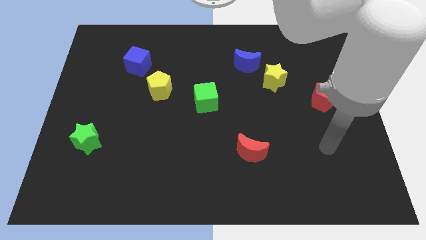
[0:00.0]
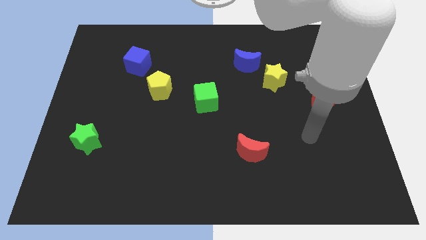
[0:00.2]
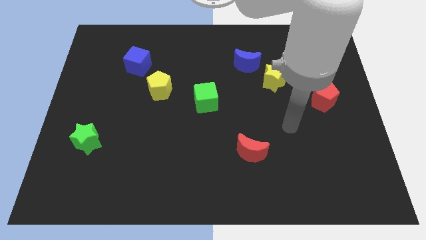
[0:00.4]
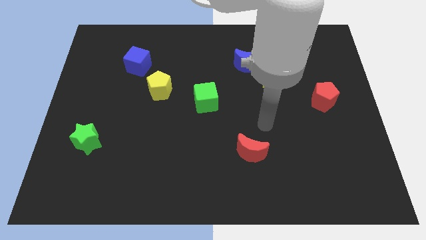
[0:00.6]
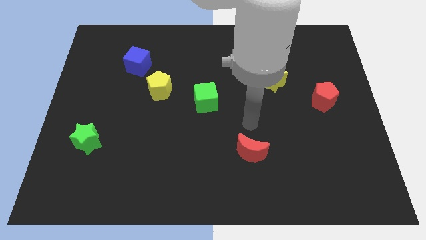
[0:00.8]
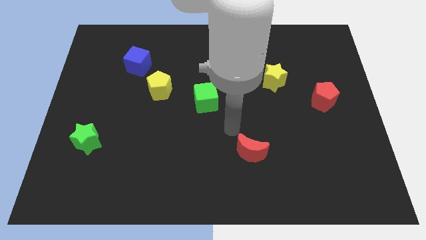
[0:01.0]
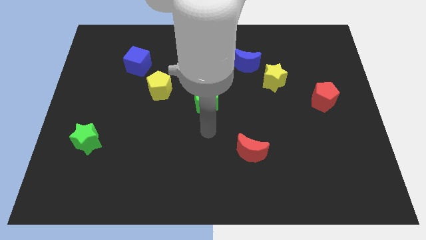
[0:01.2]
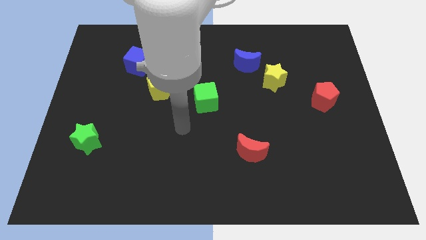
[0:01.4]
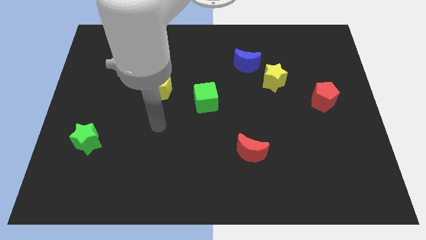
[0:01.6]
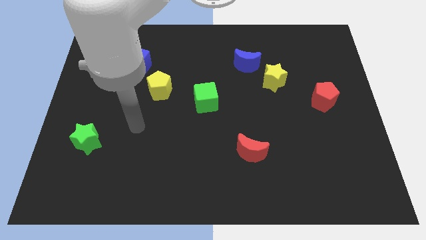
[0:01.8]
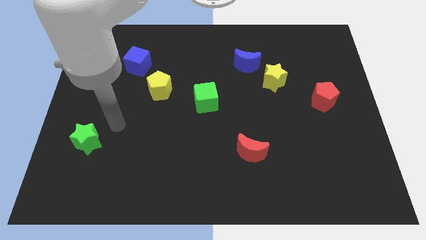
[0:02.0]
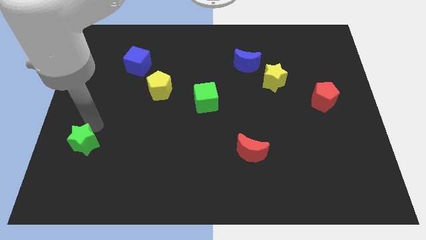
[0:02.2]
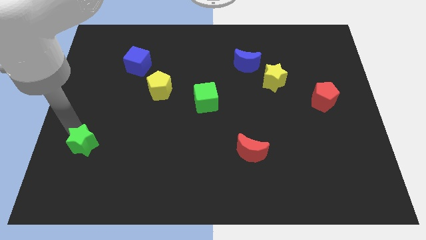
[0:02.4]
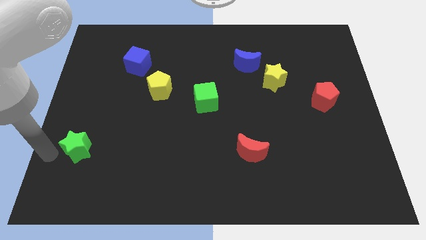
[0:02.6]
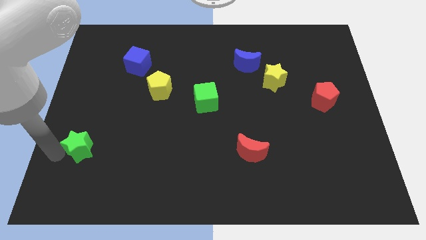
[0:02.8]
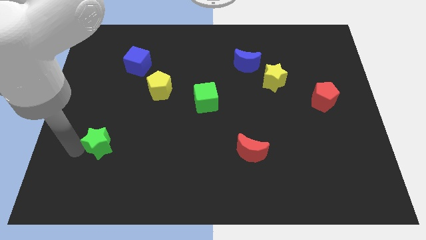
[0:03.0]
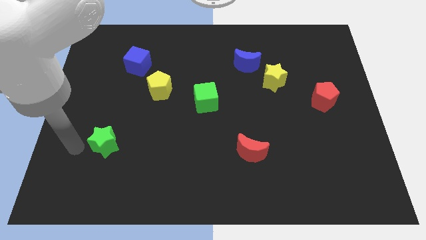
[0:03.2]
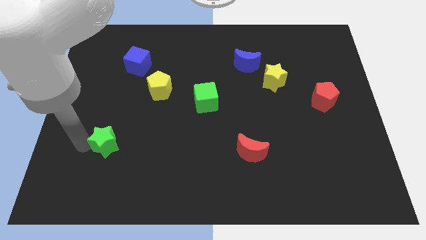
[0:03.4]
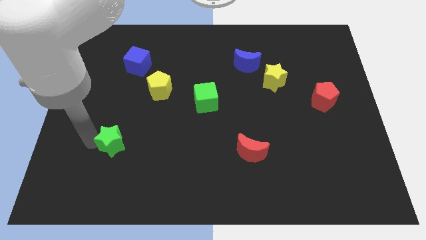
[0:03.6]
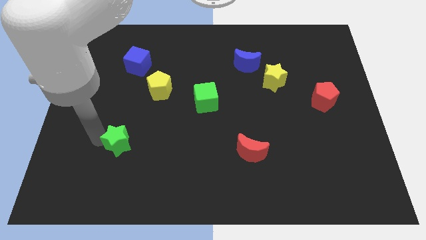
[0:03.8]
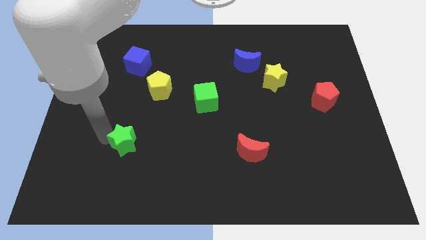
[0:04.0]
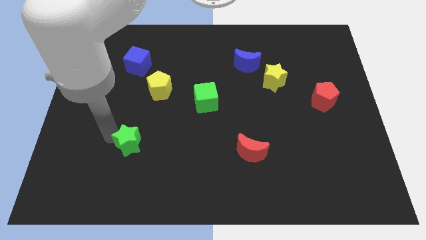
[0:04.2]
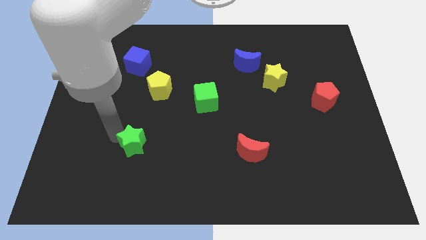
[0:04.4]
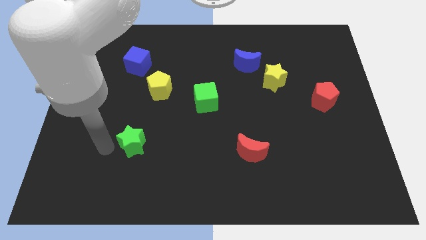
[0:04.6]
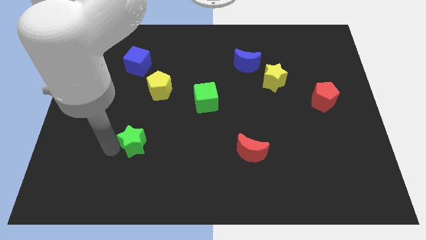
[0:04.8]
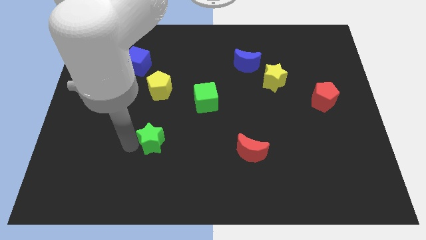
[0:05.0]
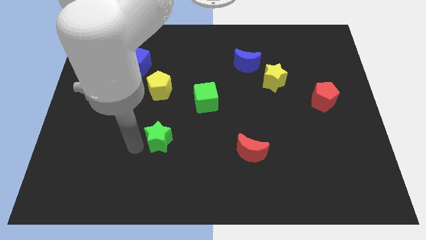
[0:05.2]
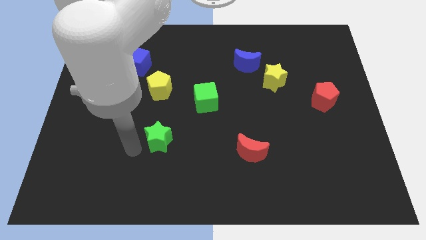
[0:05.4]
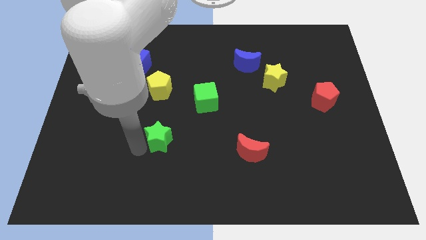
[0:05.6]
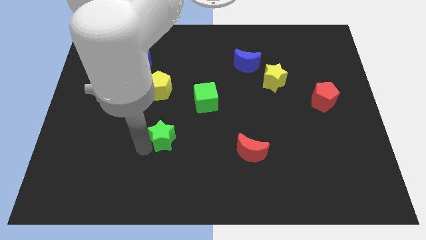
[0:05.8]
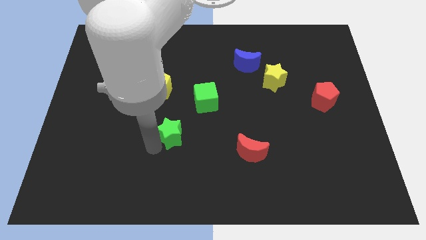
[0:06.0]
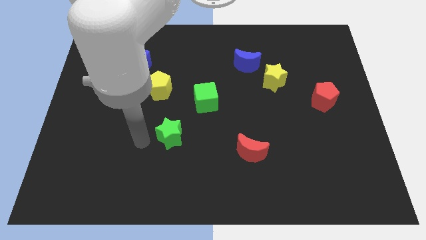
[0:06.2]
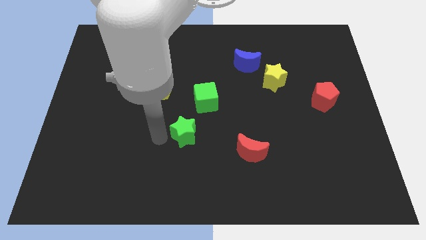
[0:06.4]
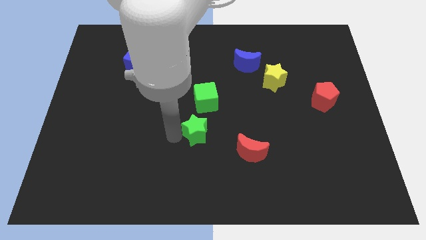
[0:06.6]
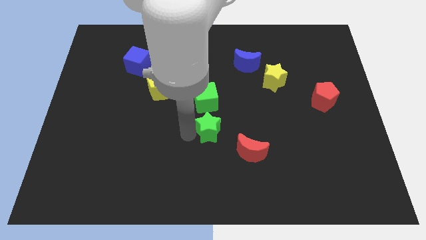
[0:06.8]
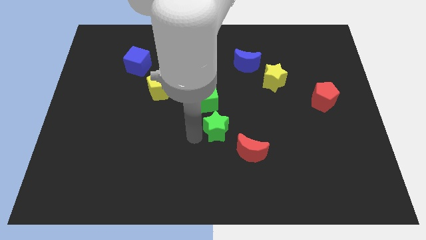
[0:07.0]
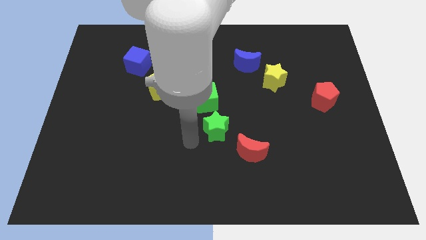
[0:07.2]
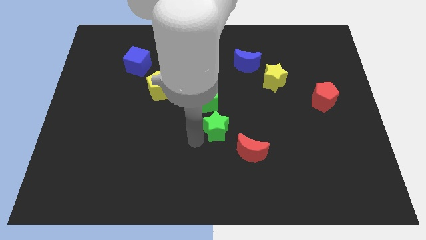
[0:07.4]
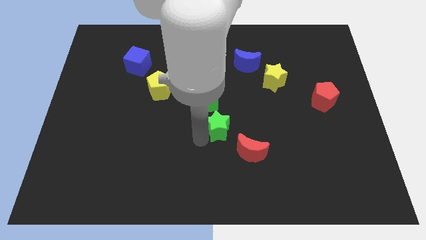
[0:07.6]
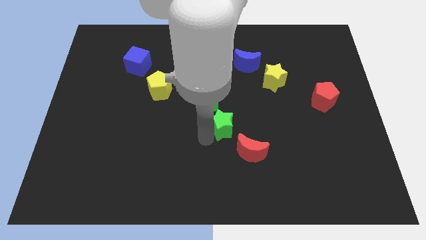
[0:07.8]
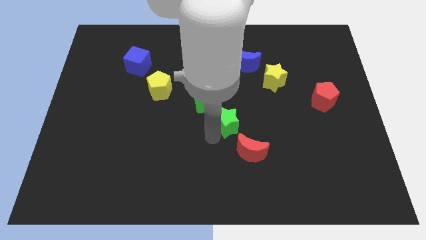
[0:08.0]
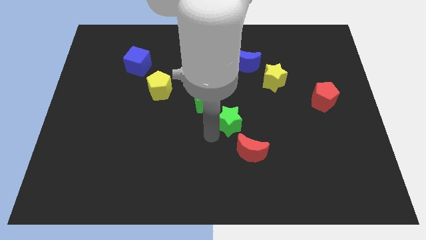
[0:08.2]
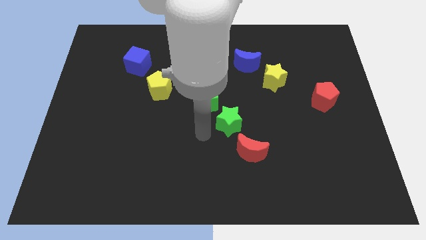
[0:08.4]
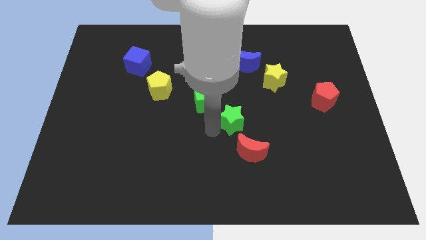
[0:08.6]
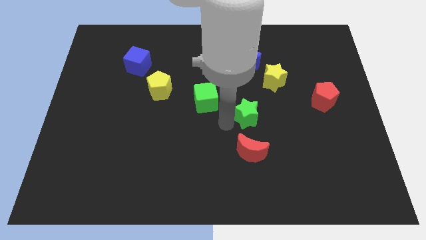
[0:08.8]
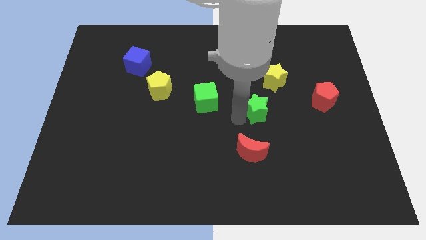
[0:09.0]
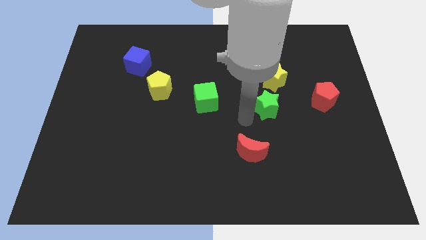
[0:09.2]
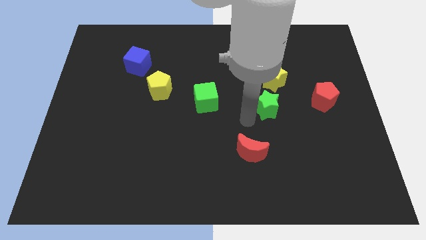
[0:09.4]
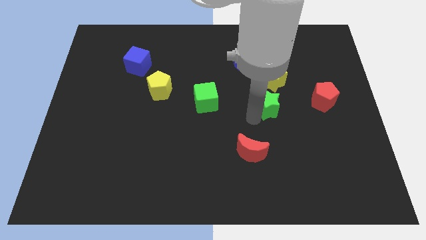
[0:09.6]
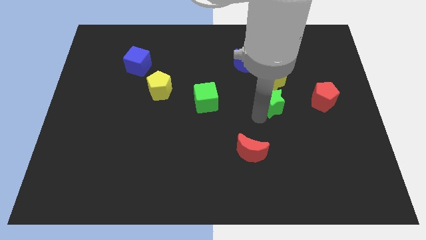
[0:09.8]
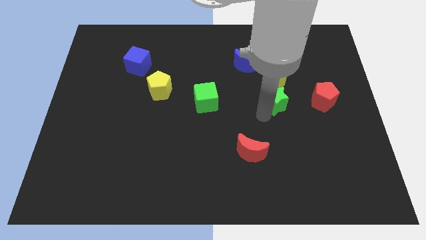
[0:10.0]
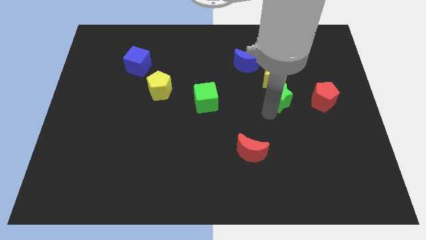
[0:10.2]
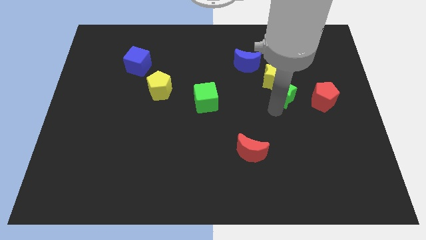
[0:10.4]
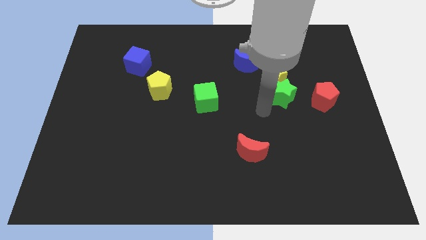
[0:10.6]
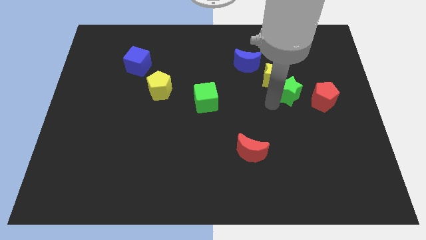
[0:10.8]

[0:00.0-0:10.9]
slide the green star diagonally up and to the left of the red pentagon

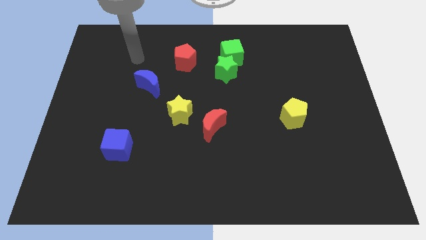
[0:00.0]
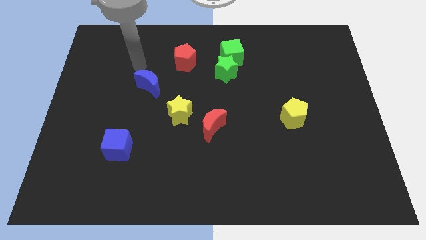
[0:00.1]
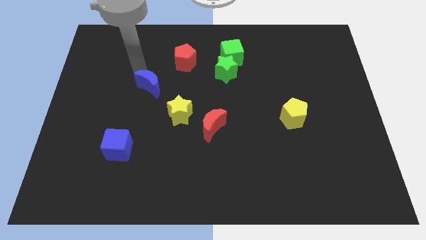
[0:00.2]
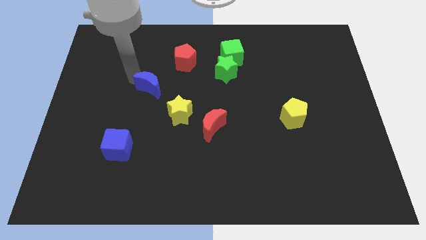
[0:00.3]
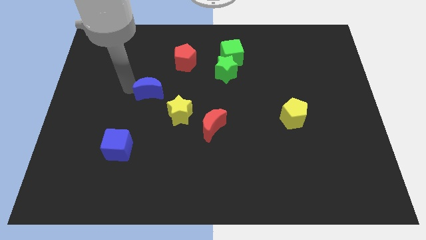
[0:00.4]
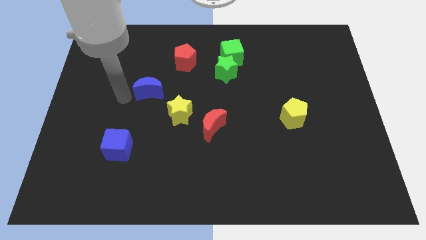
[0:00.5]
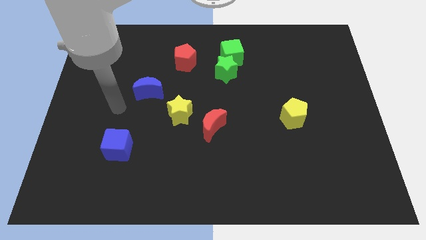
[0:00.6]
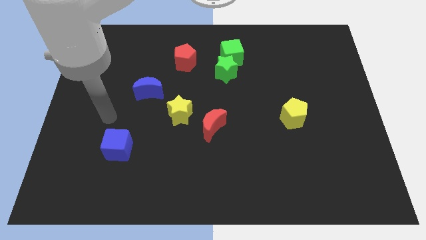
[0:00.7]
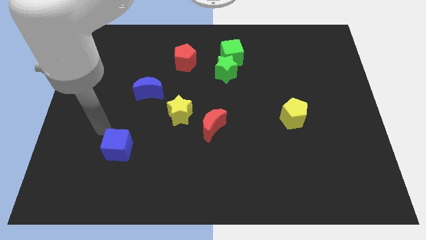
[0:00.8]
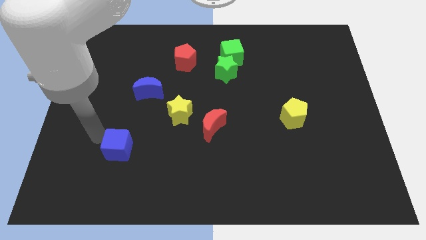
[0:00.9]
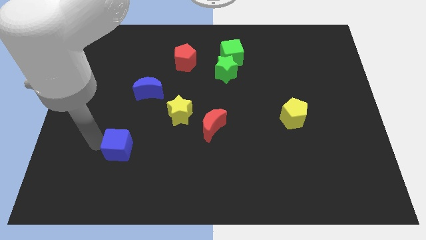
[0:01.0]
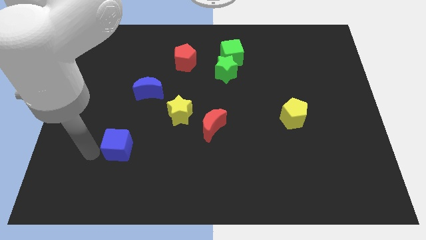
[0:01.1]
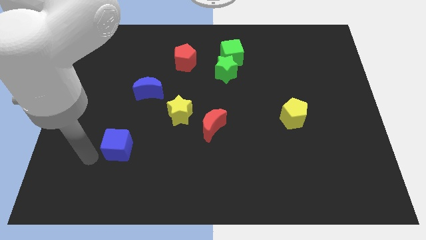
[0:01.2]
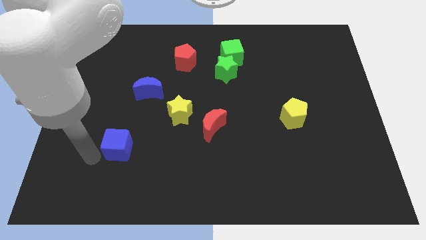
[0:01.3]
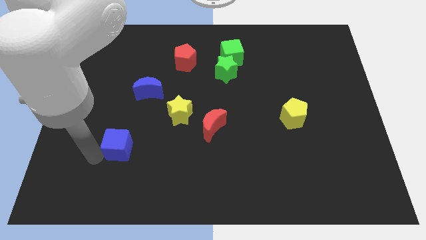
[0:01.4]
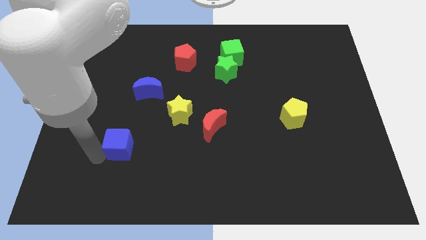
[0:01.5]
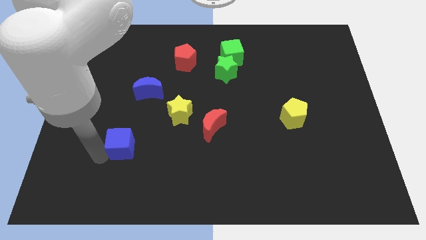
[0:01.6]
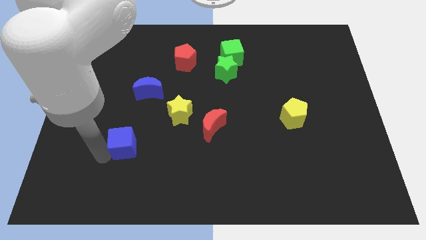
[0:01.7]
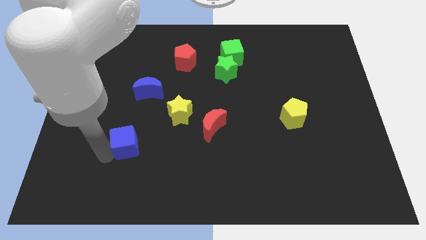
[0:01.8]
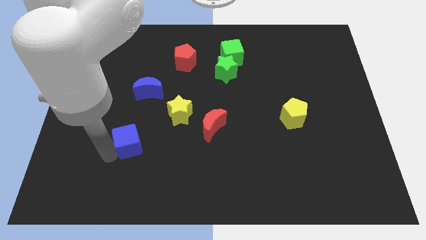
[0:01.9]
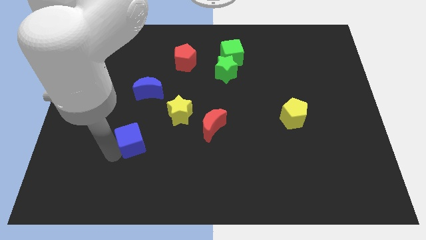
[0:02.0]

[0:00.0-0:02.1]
slide the blue cube to the bottom left of the yellow star
